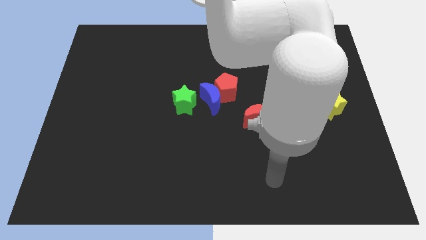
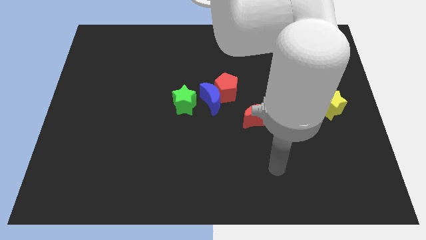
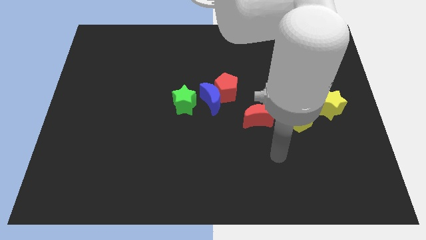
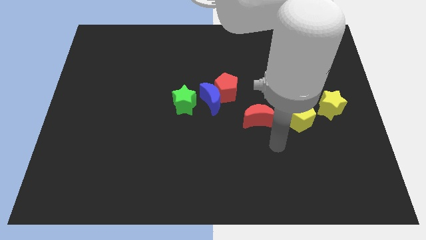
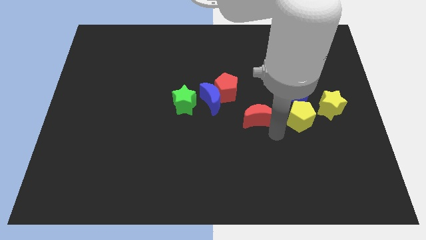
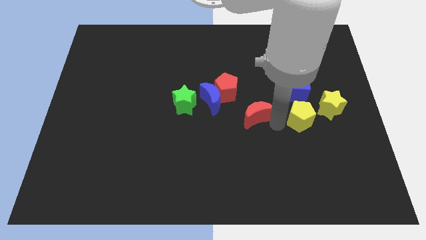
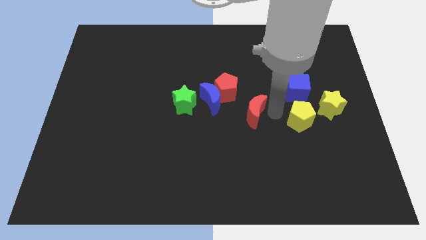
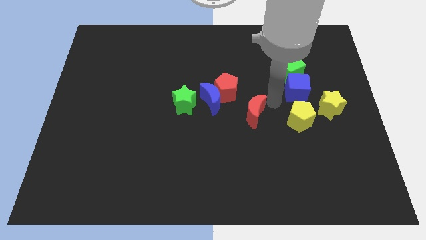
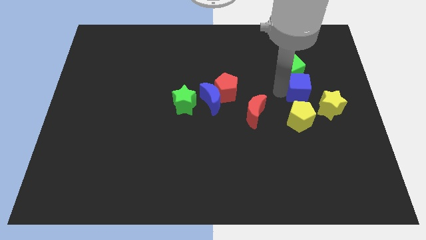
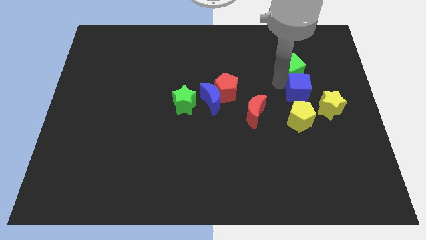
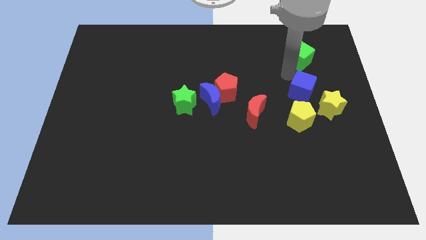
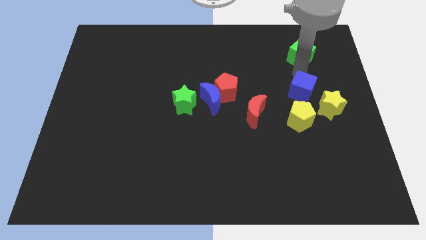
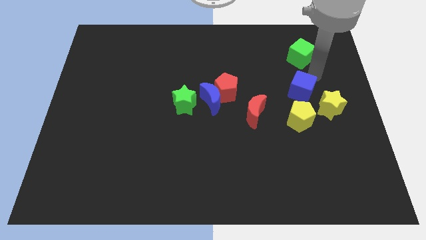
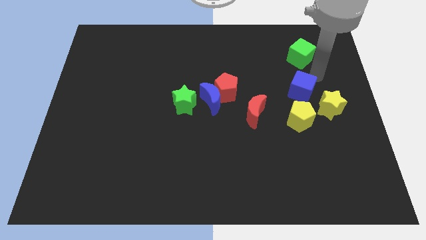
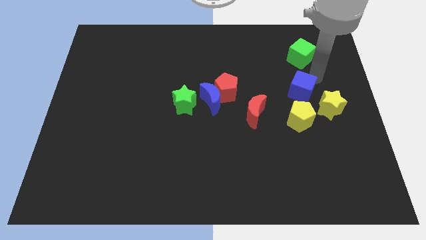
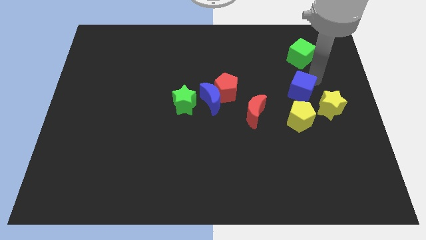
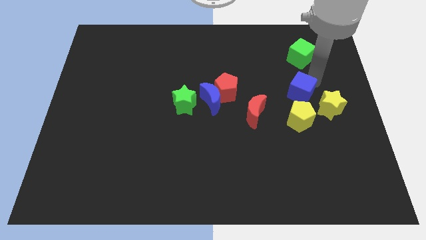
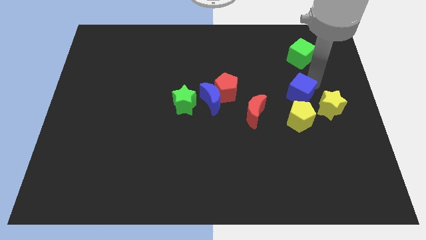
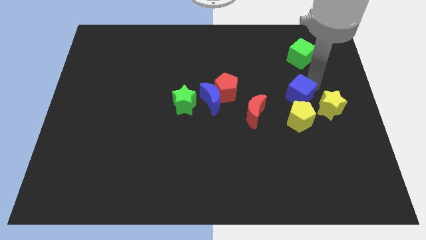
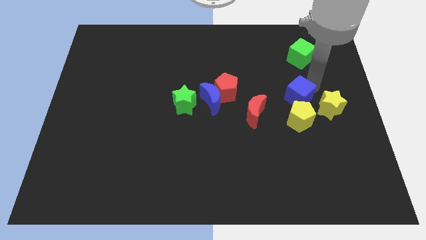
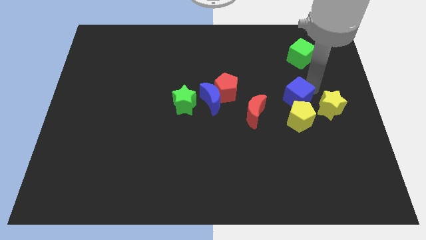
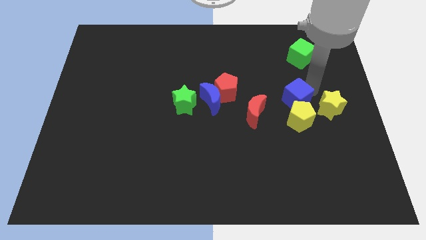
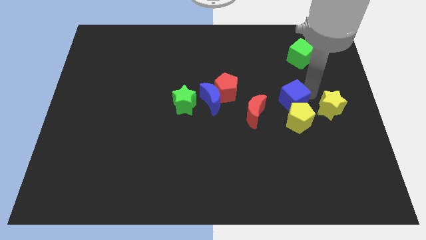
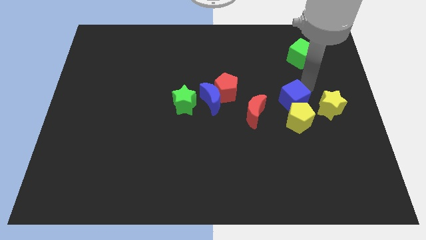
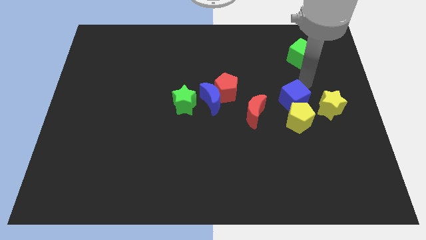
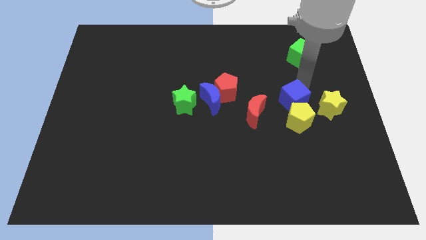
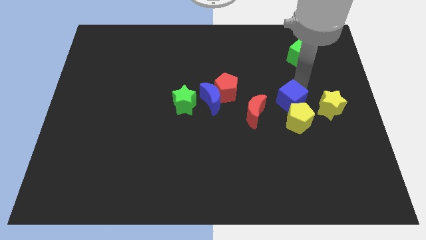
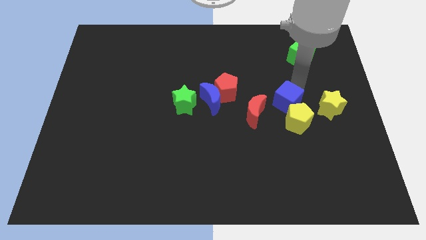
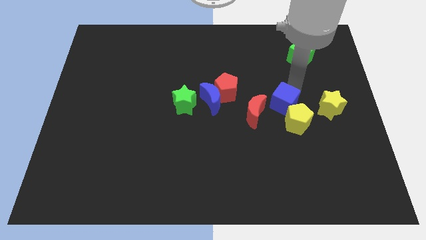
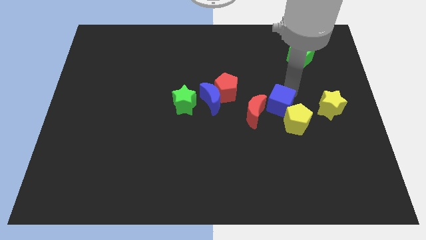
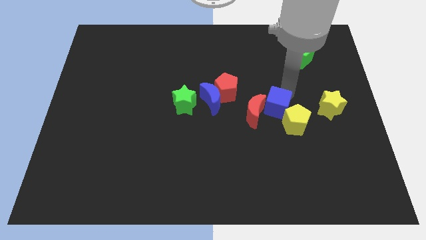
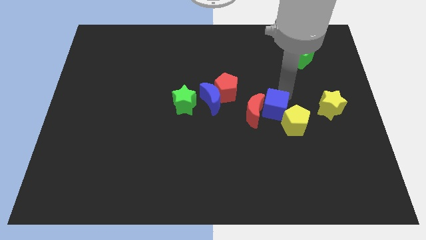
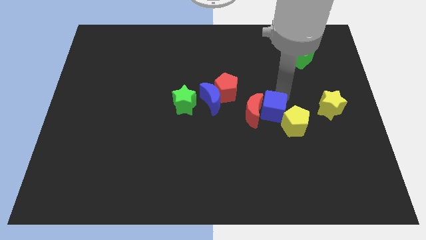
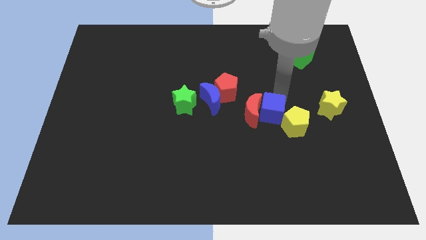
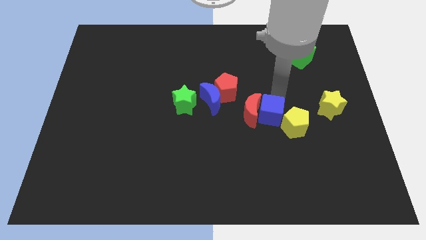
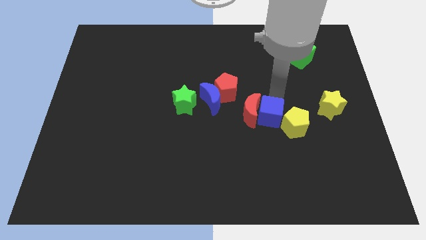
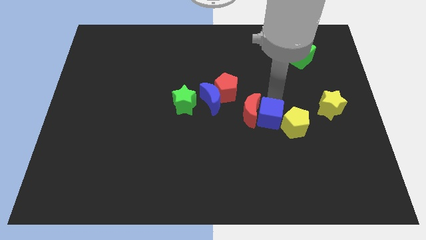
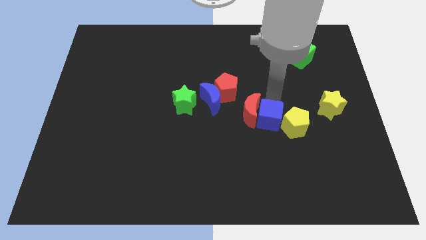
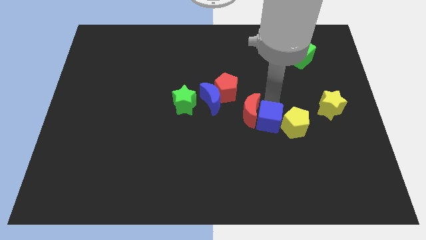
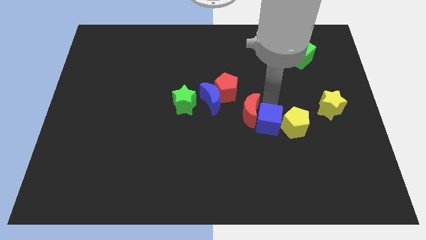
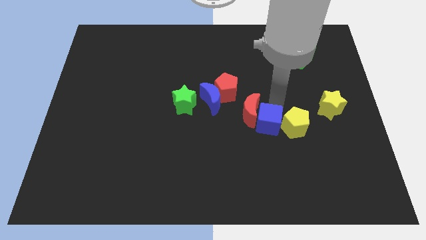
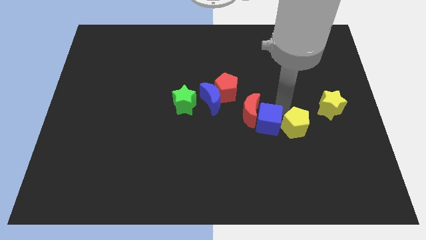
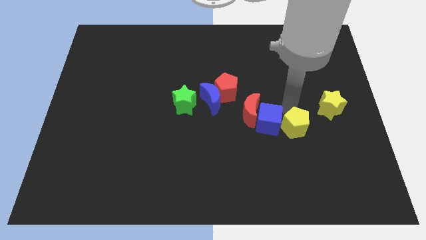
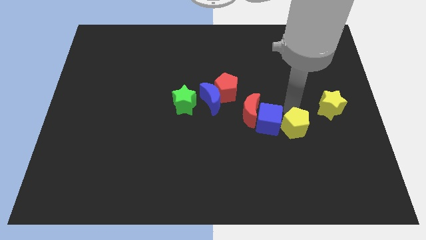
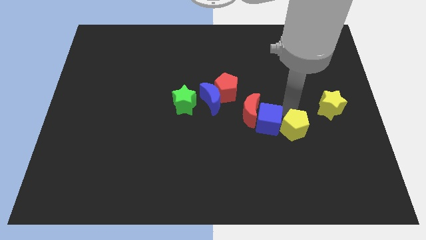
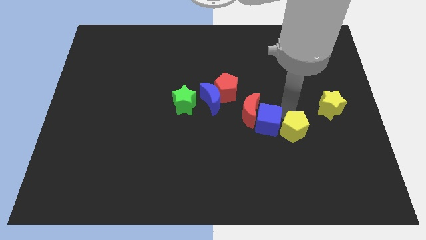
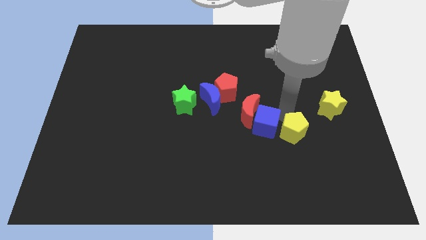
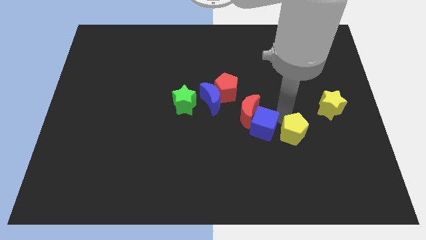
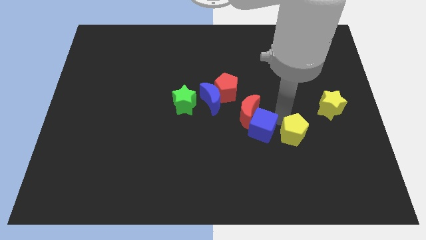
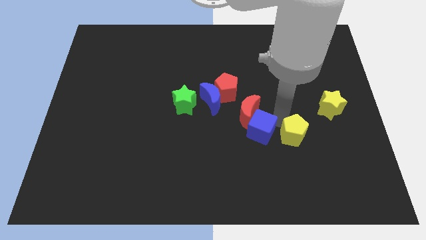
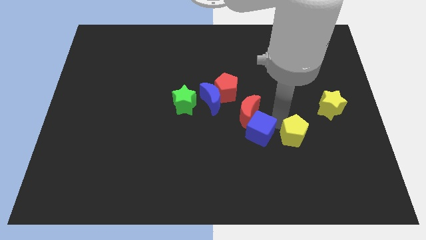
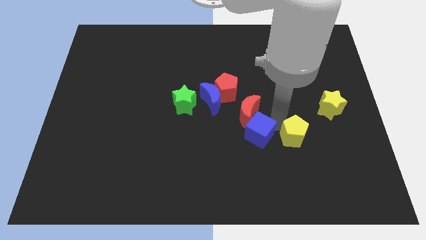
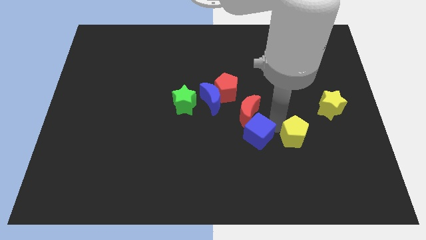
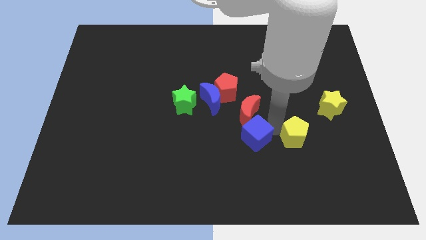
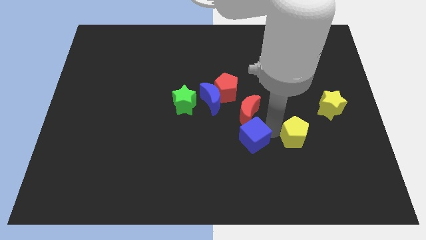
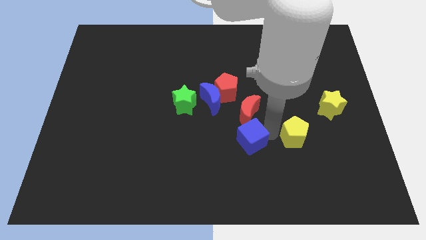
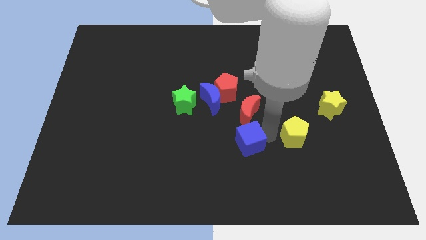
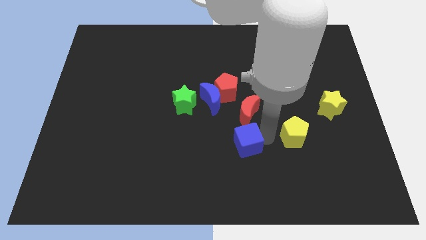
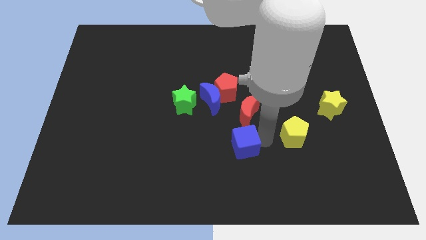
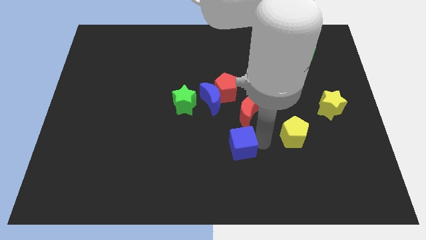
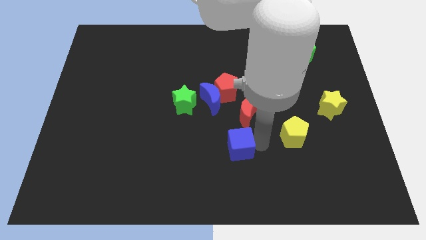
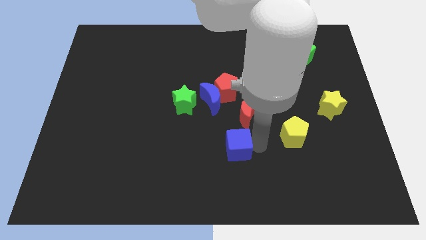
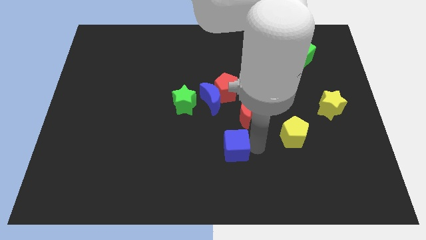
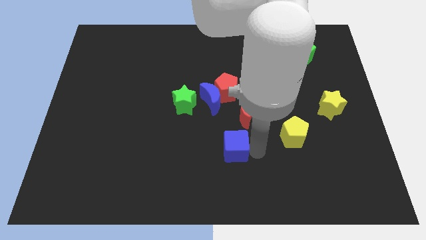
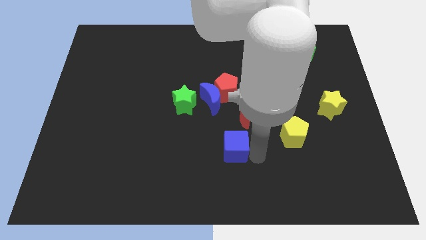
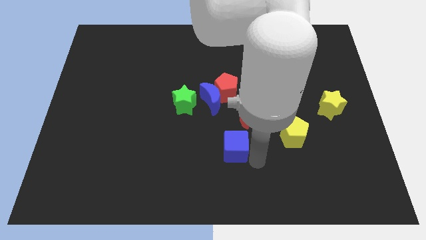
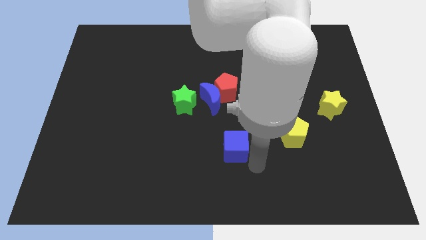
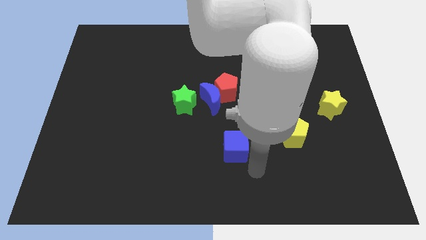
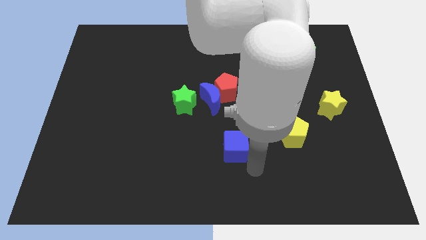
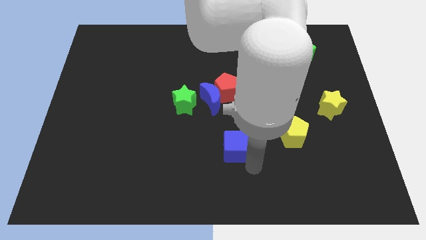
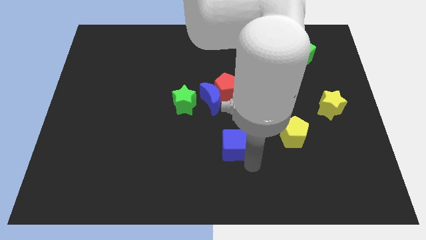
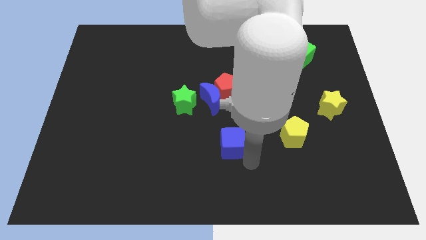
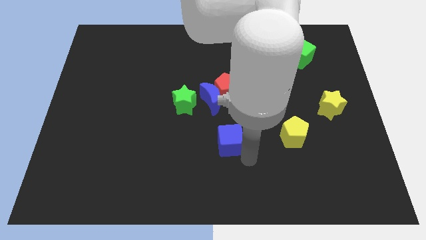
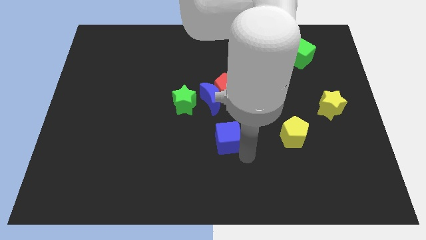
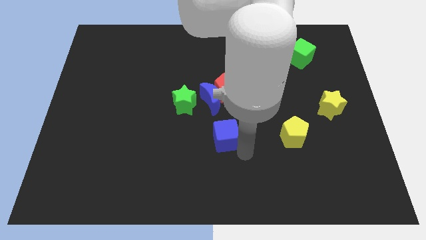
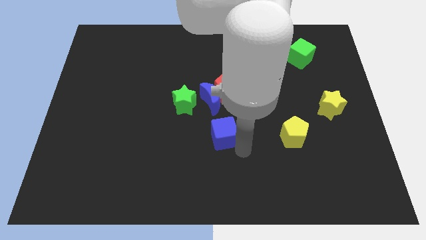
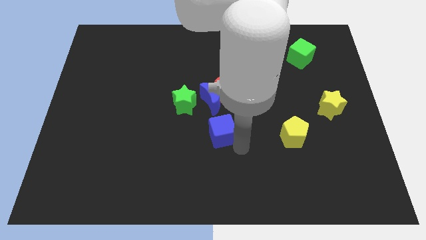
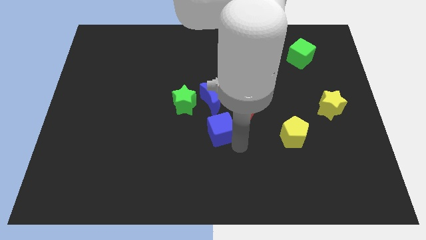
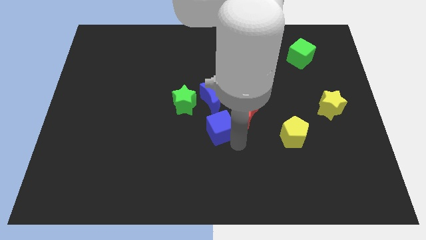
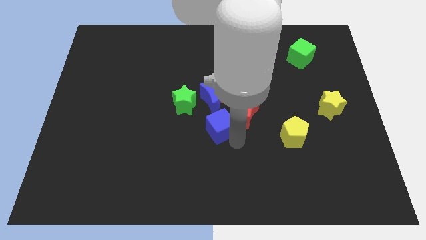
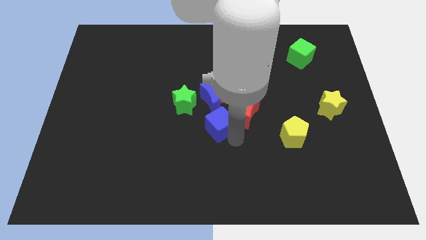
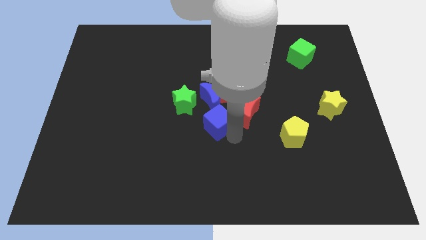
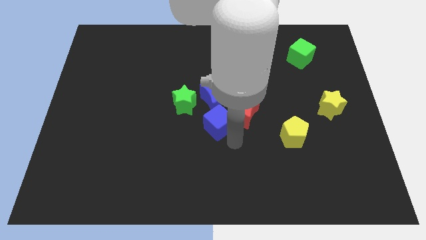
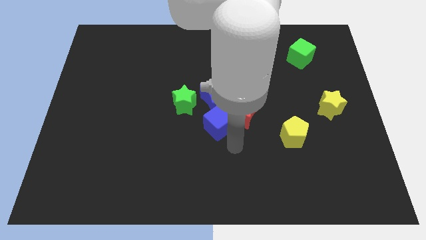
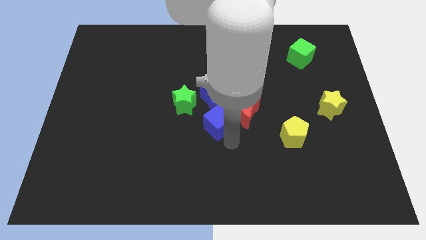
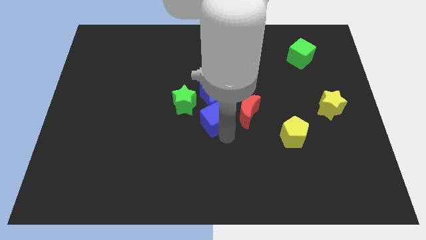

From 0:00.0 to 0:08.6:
slide the blue cube to the bottom left of the red pentagon
